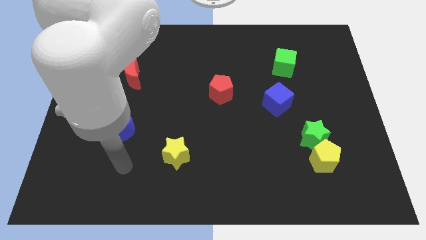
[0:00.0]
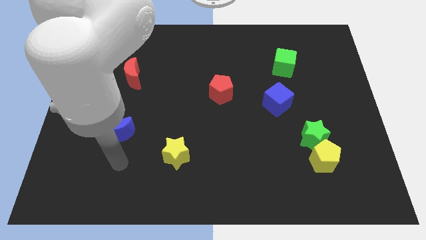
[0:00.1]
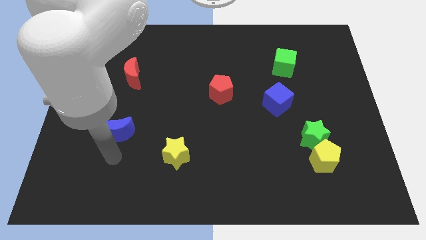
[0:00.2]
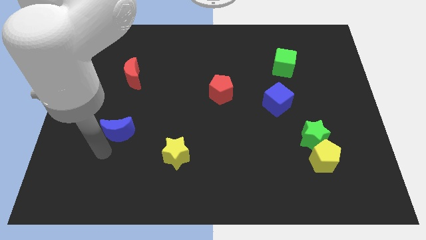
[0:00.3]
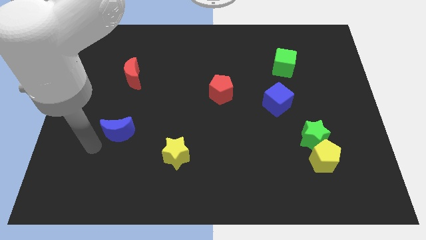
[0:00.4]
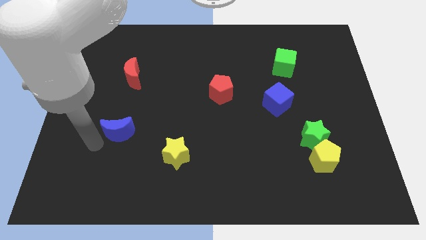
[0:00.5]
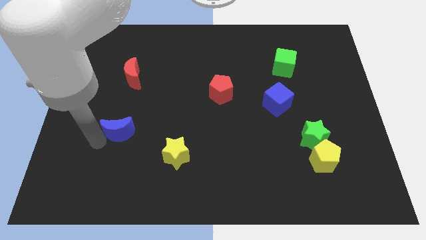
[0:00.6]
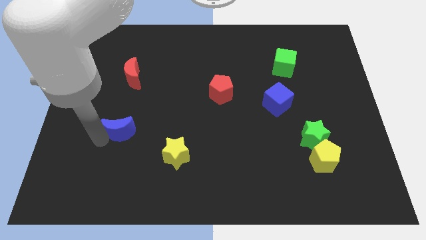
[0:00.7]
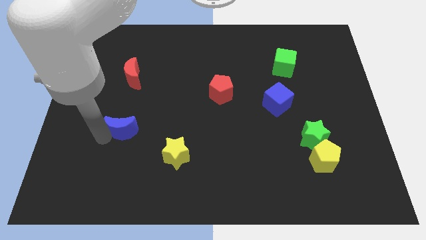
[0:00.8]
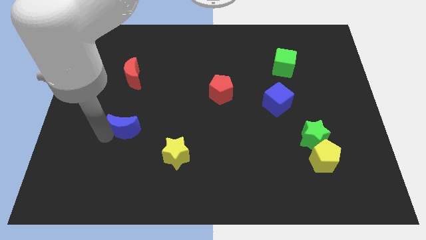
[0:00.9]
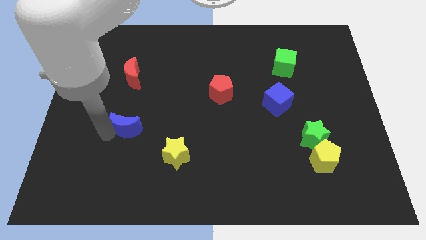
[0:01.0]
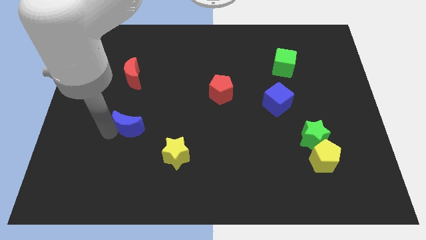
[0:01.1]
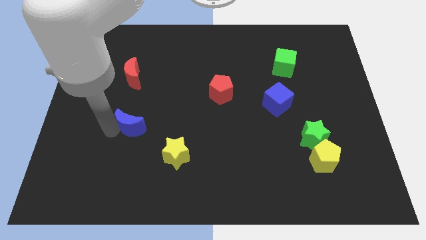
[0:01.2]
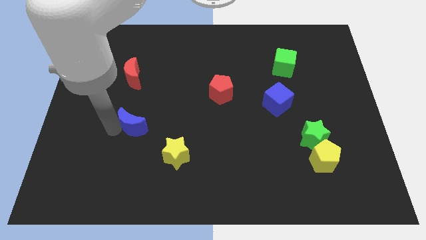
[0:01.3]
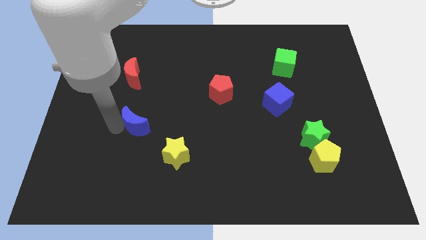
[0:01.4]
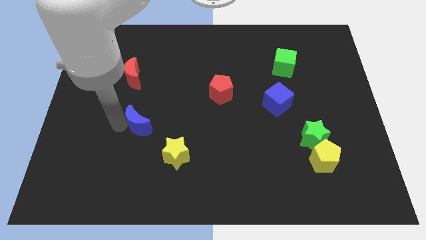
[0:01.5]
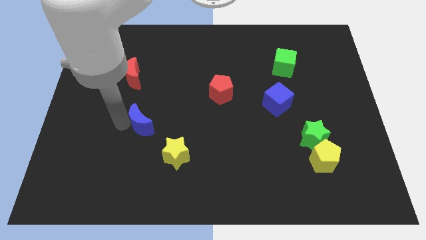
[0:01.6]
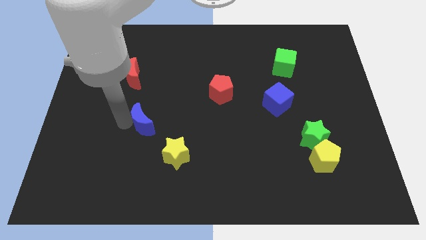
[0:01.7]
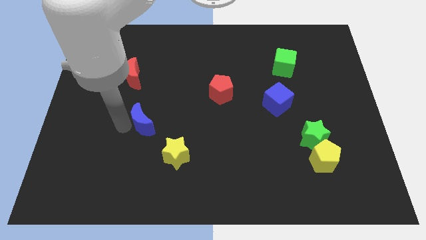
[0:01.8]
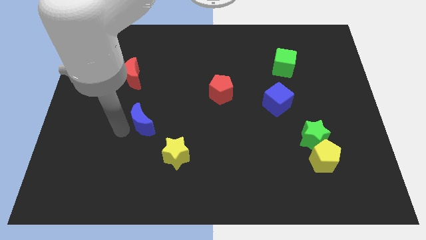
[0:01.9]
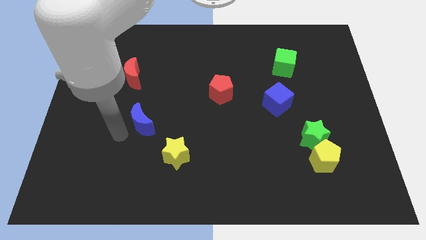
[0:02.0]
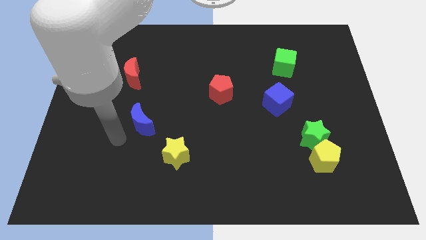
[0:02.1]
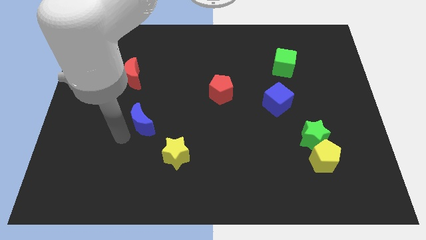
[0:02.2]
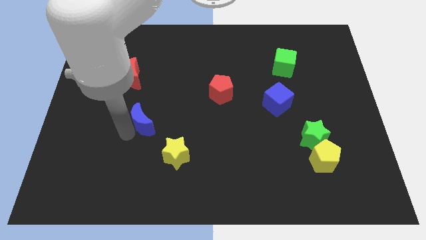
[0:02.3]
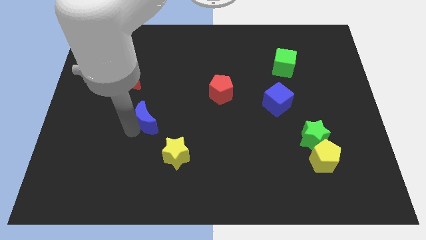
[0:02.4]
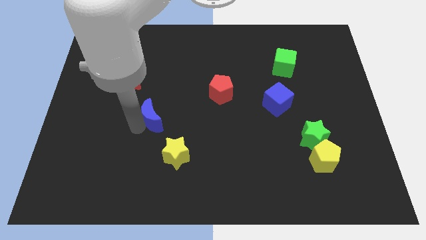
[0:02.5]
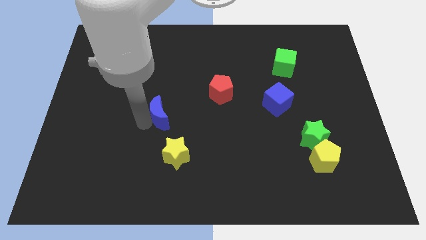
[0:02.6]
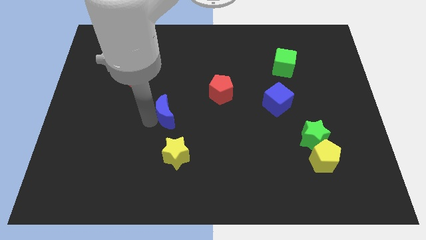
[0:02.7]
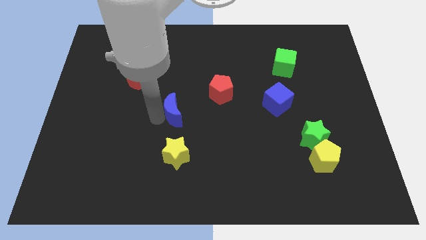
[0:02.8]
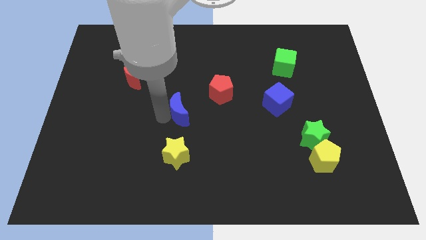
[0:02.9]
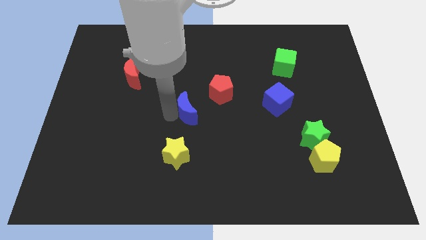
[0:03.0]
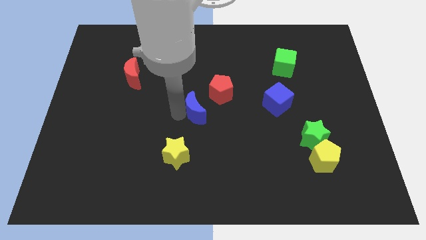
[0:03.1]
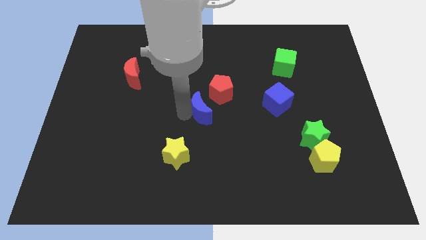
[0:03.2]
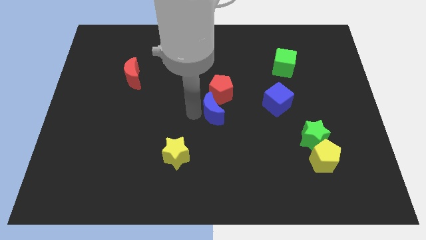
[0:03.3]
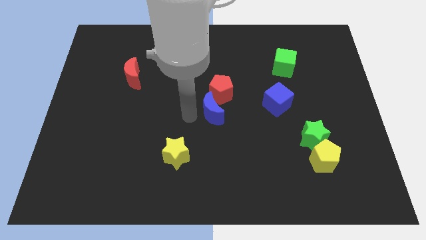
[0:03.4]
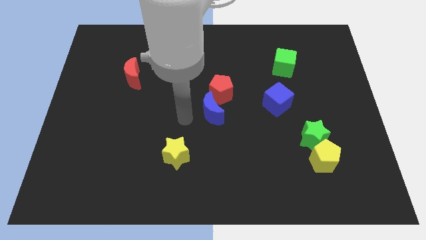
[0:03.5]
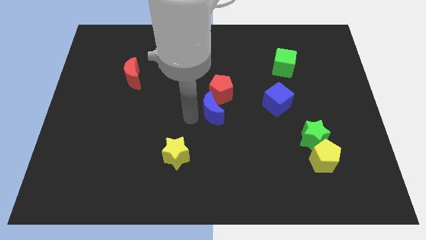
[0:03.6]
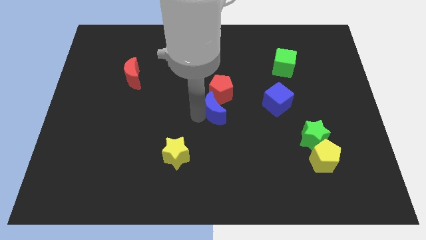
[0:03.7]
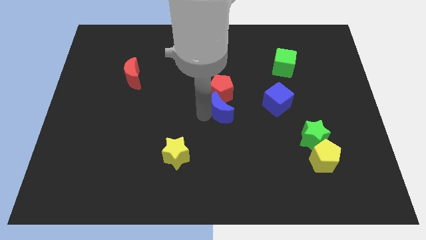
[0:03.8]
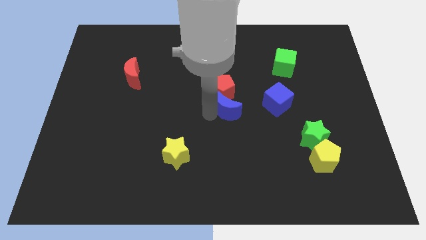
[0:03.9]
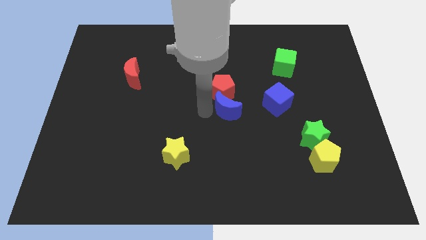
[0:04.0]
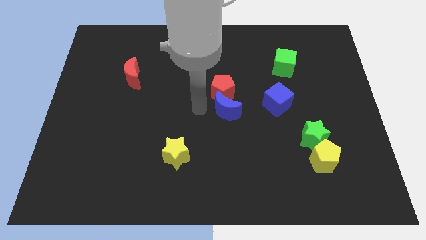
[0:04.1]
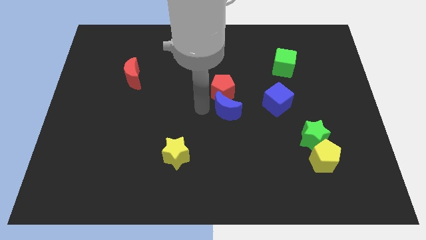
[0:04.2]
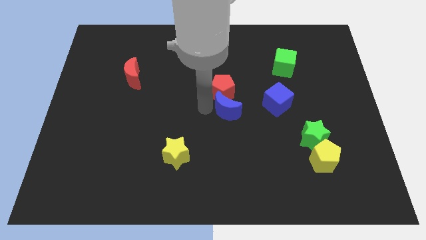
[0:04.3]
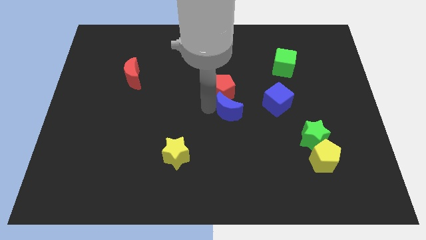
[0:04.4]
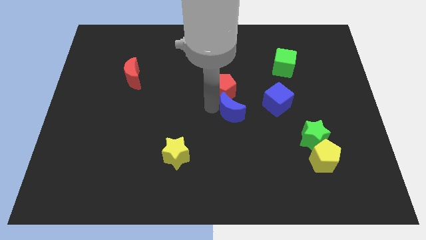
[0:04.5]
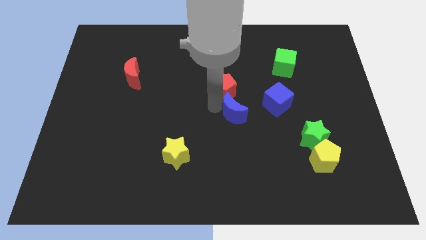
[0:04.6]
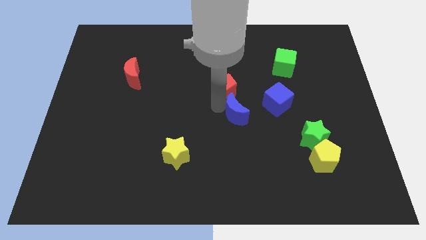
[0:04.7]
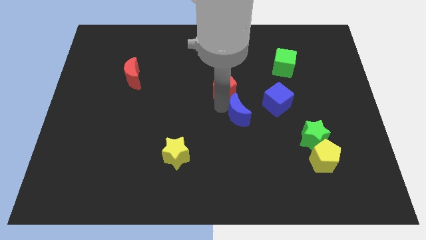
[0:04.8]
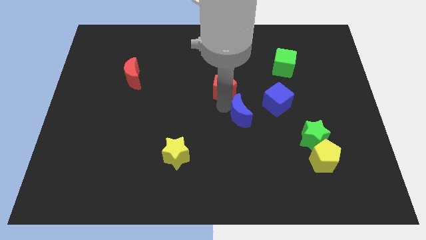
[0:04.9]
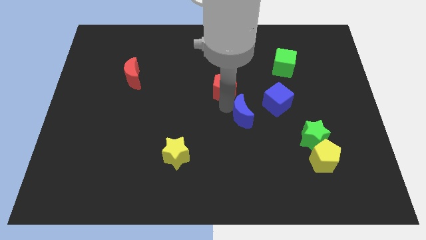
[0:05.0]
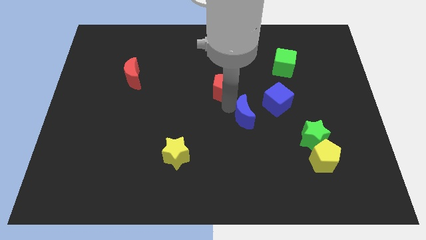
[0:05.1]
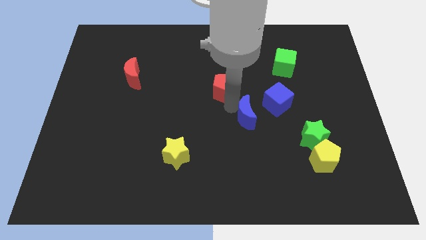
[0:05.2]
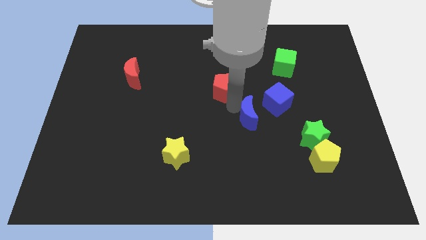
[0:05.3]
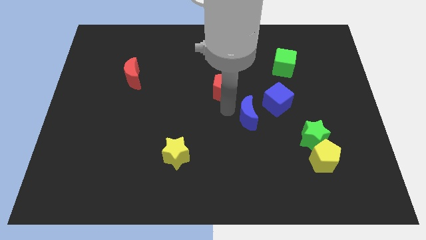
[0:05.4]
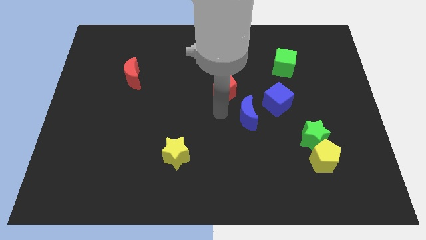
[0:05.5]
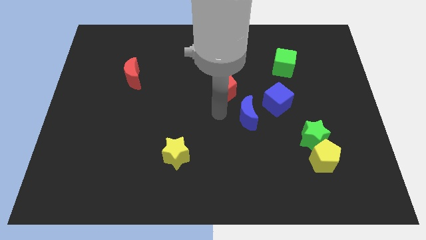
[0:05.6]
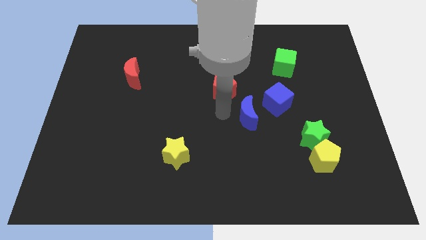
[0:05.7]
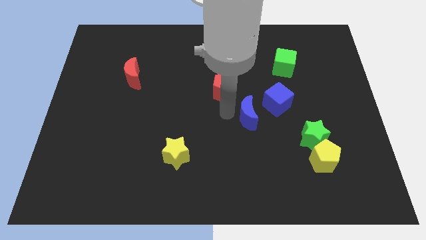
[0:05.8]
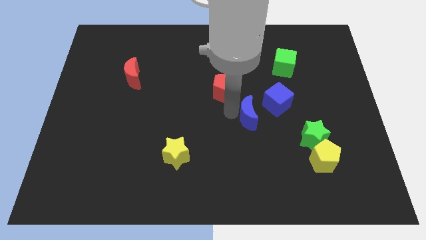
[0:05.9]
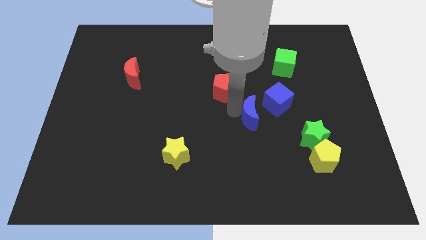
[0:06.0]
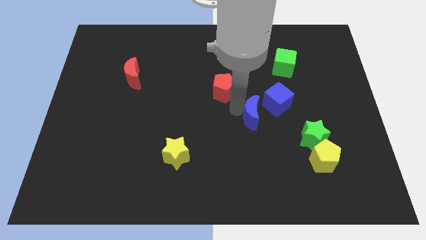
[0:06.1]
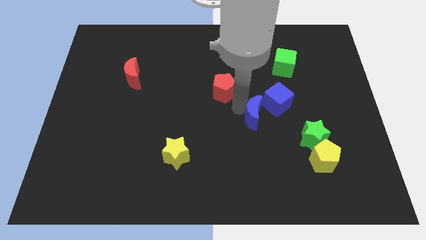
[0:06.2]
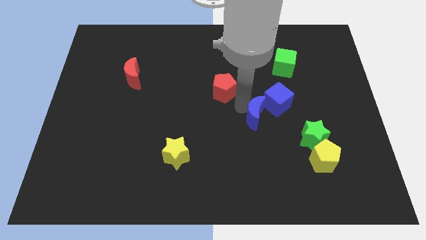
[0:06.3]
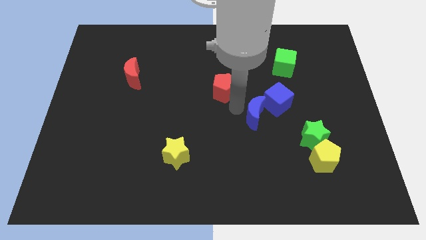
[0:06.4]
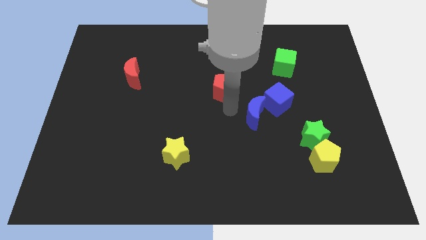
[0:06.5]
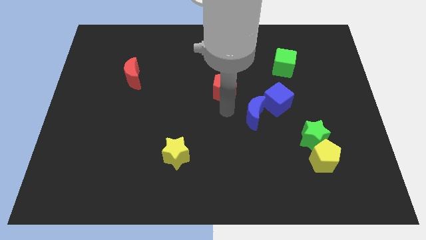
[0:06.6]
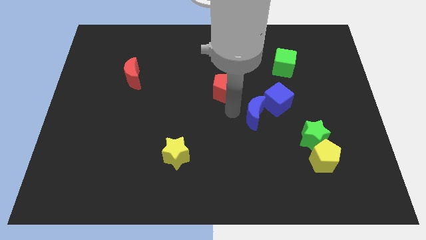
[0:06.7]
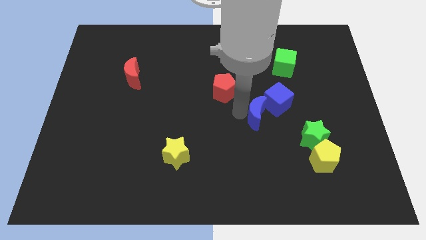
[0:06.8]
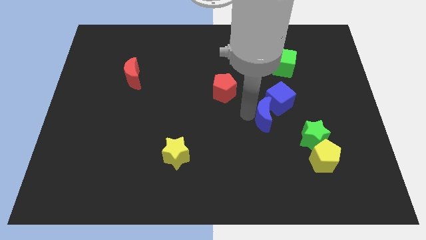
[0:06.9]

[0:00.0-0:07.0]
slide the blue moon diagonally up and to the left of the green star
